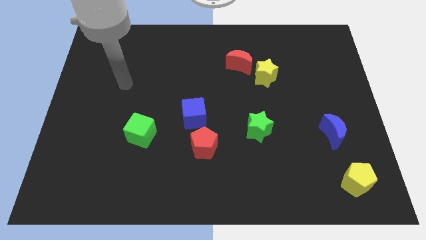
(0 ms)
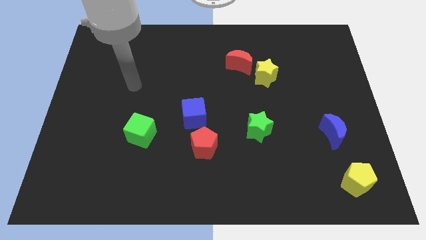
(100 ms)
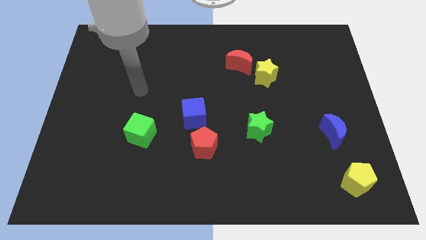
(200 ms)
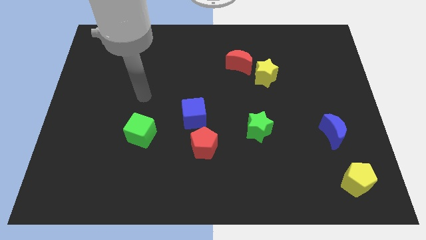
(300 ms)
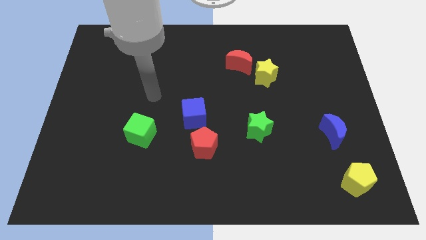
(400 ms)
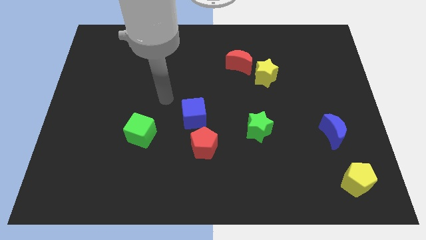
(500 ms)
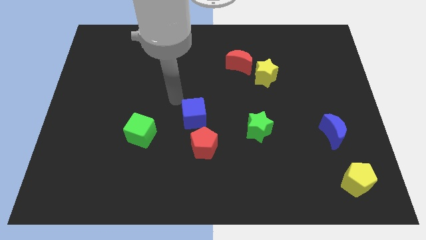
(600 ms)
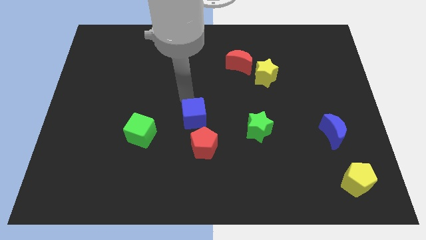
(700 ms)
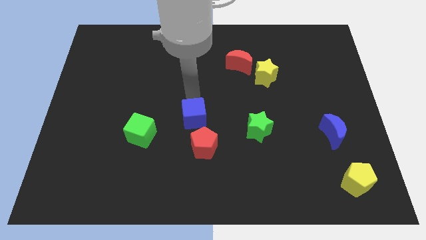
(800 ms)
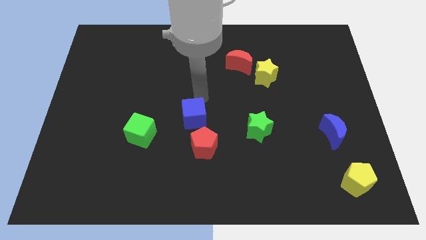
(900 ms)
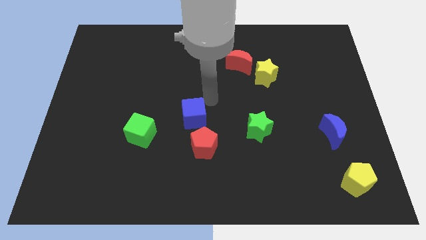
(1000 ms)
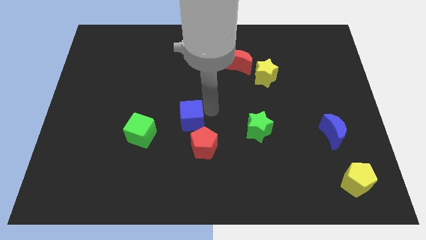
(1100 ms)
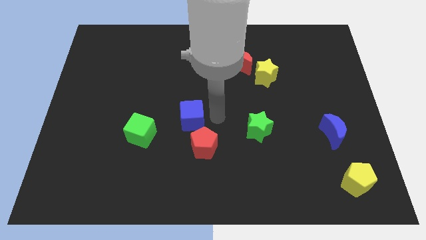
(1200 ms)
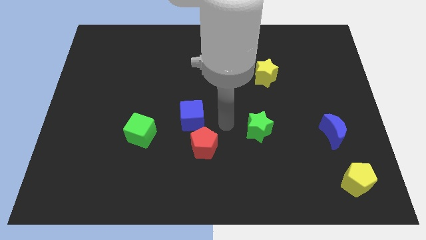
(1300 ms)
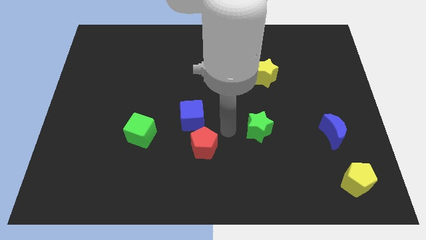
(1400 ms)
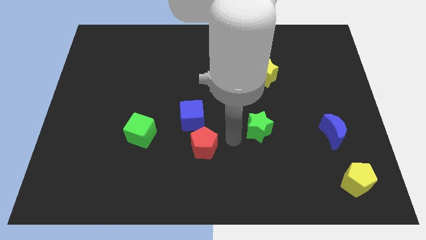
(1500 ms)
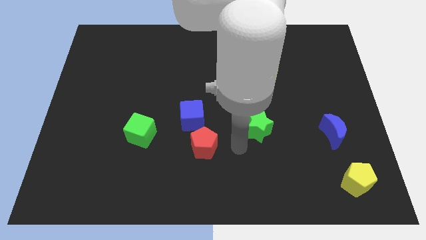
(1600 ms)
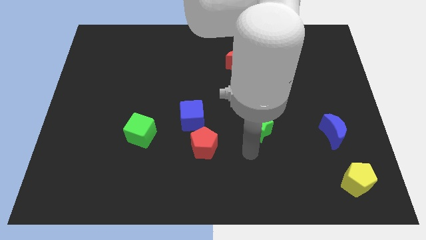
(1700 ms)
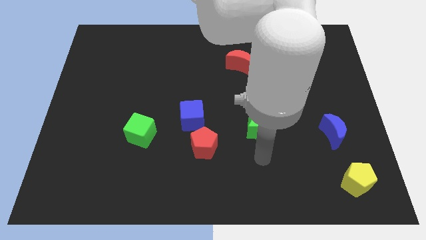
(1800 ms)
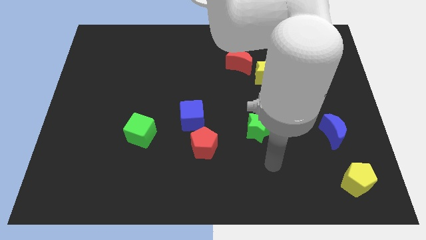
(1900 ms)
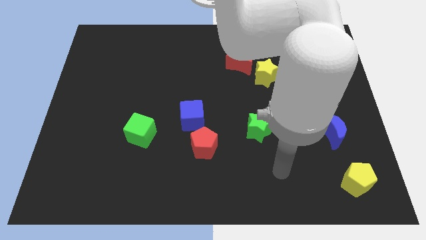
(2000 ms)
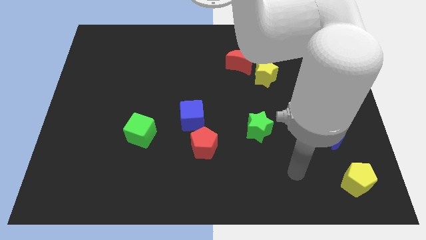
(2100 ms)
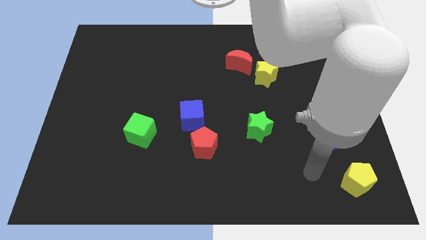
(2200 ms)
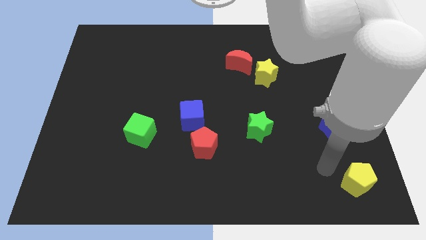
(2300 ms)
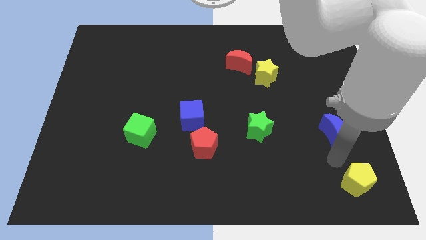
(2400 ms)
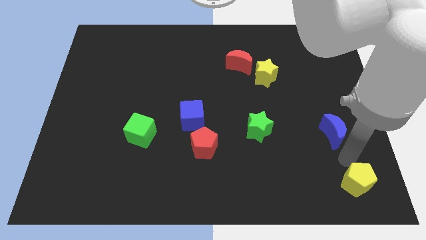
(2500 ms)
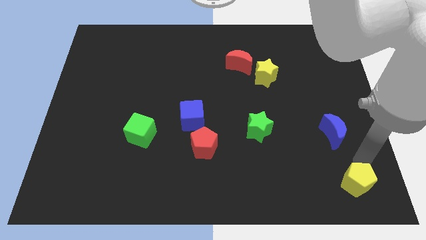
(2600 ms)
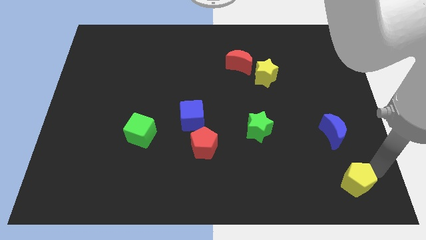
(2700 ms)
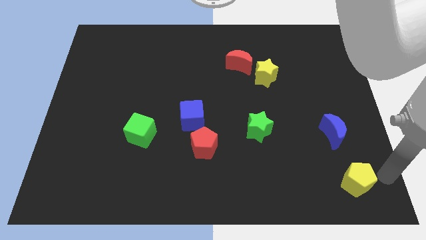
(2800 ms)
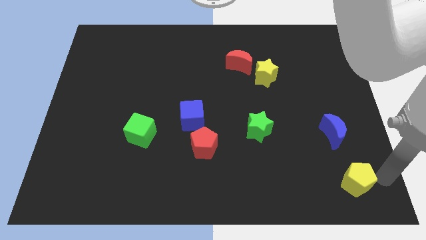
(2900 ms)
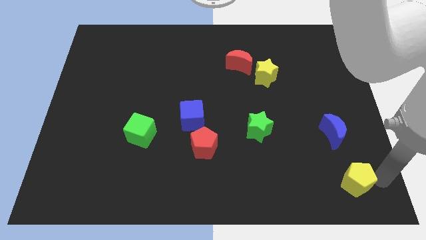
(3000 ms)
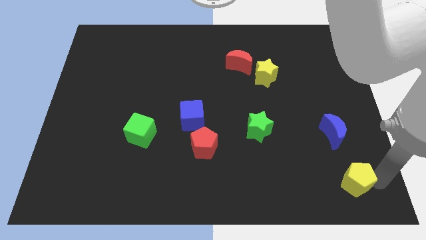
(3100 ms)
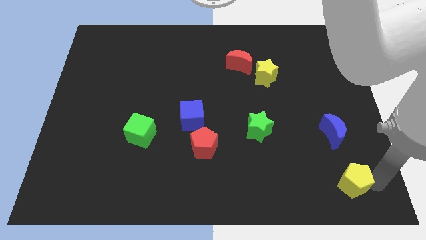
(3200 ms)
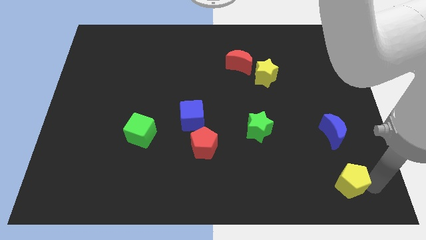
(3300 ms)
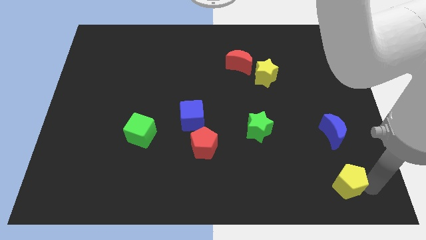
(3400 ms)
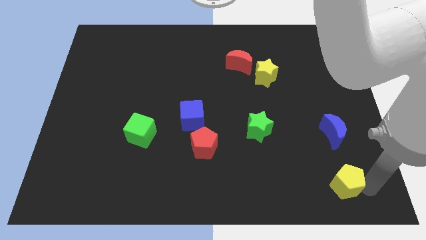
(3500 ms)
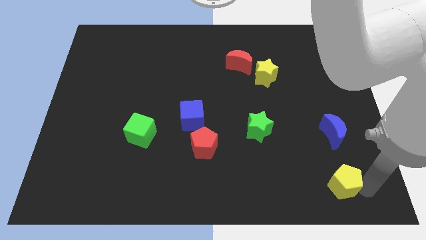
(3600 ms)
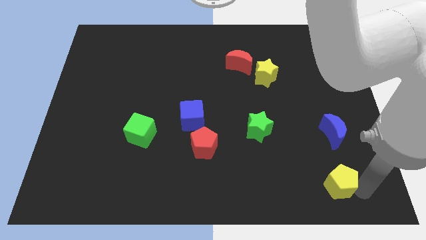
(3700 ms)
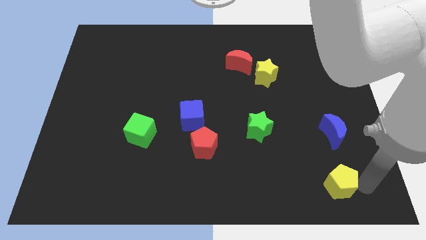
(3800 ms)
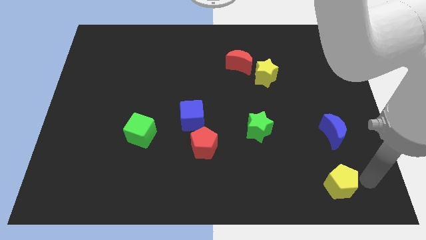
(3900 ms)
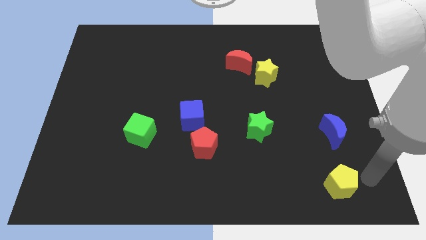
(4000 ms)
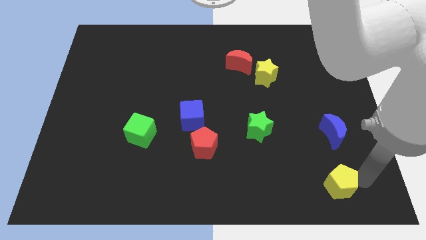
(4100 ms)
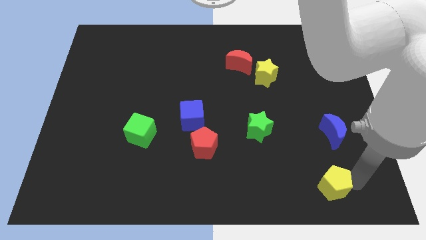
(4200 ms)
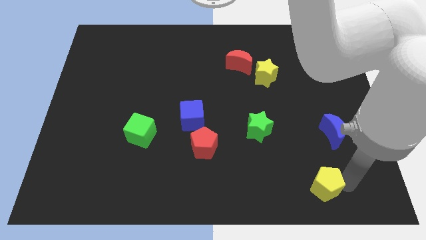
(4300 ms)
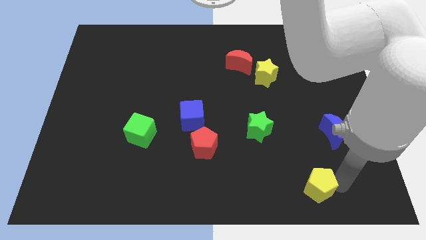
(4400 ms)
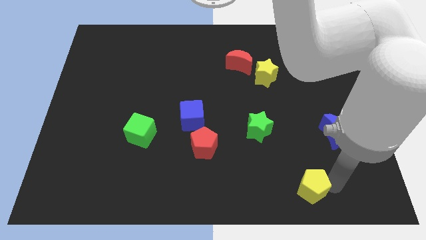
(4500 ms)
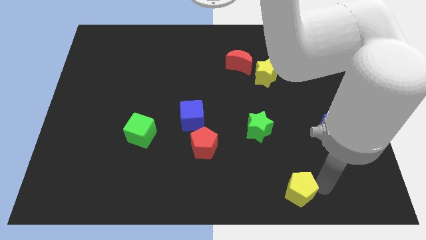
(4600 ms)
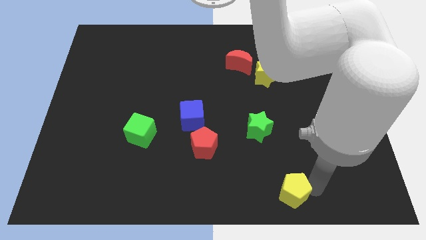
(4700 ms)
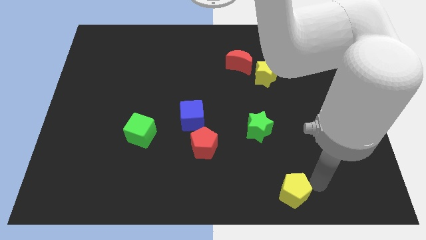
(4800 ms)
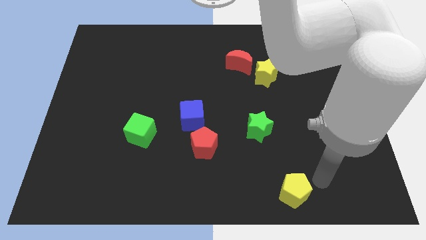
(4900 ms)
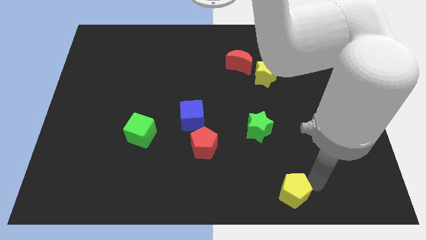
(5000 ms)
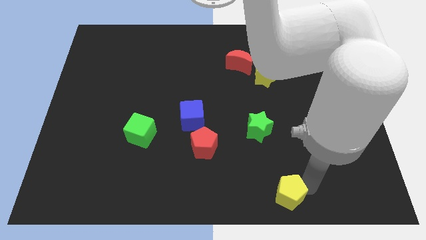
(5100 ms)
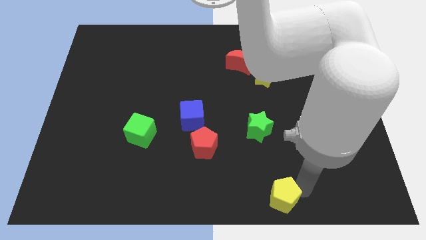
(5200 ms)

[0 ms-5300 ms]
move the yellow pentagon to the bottom side
